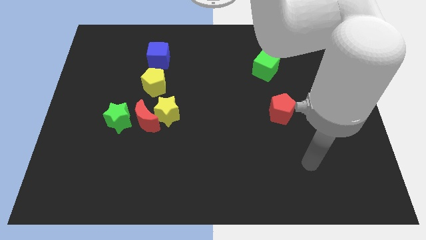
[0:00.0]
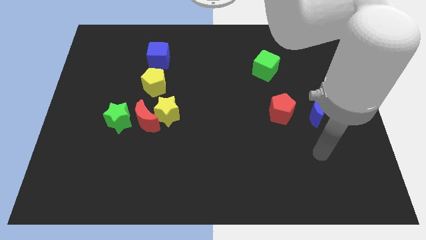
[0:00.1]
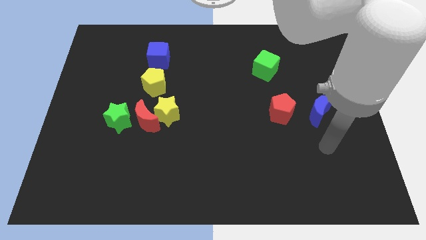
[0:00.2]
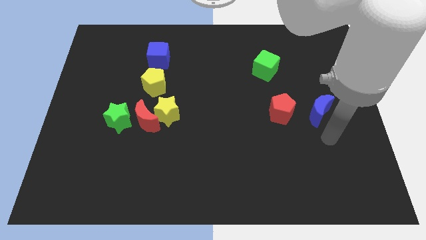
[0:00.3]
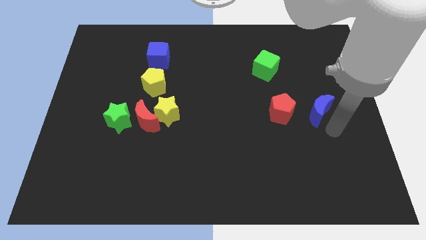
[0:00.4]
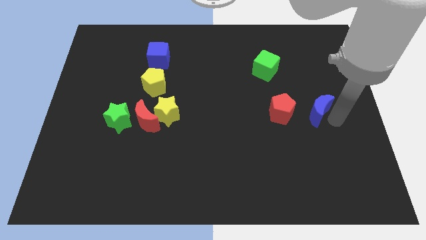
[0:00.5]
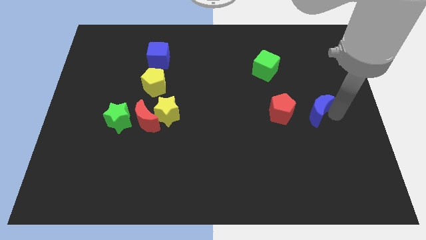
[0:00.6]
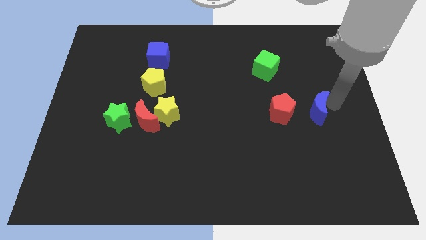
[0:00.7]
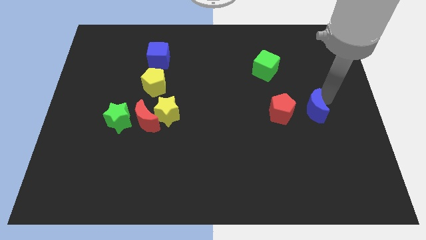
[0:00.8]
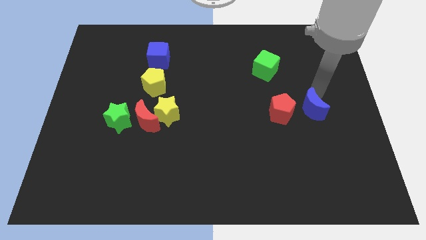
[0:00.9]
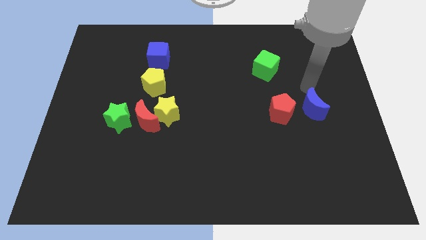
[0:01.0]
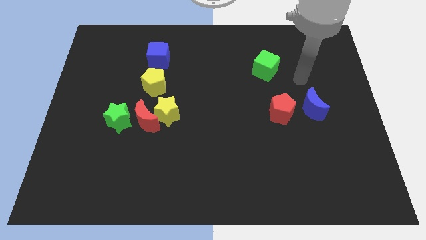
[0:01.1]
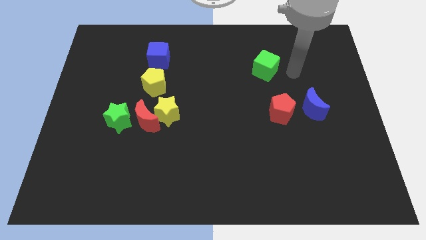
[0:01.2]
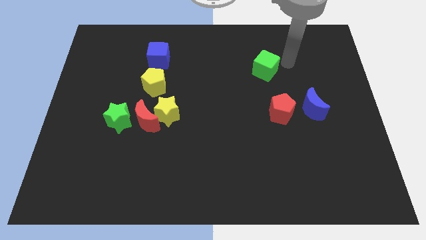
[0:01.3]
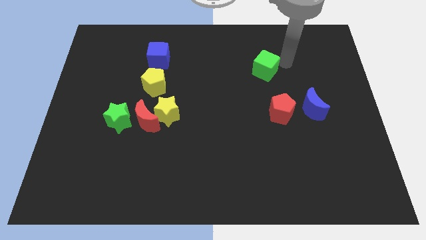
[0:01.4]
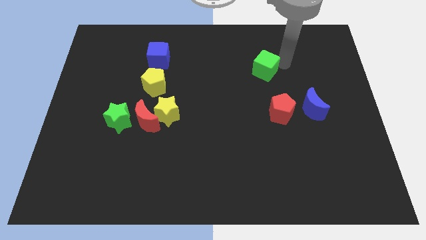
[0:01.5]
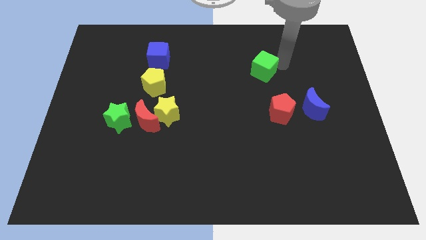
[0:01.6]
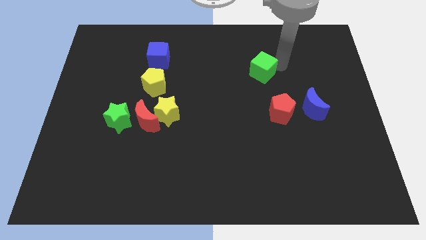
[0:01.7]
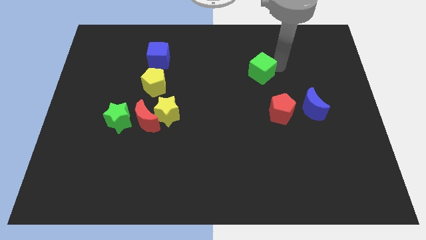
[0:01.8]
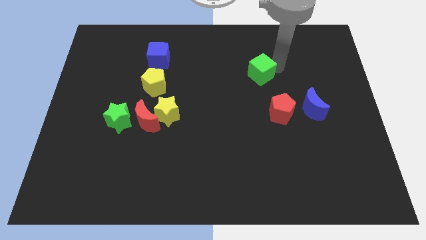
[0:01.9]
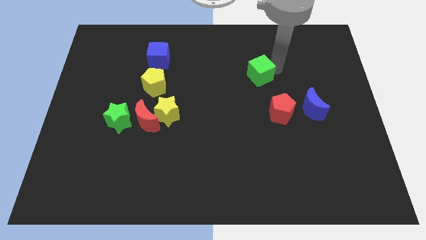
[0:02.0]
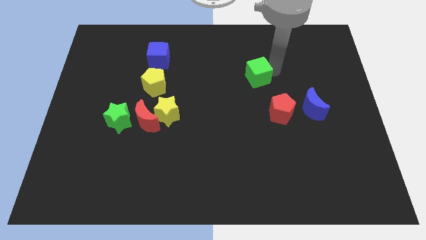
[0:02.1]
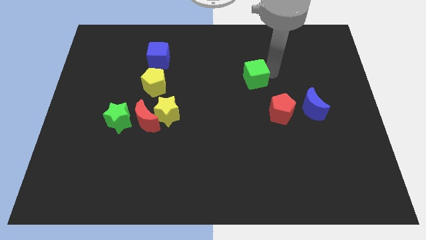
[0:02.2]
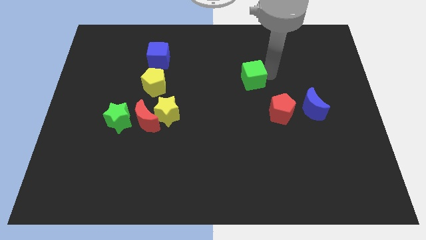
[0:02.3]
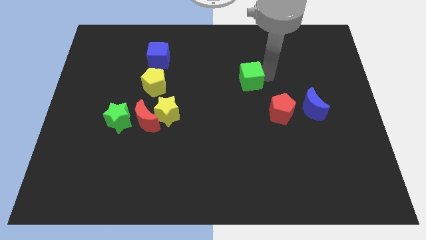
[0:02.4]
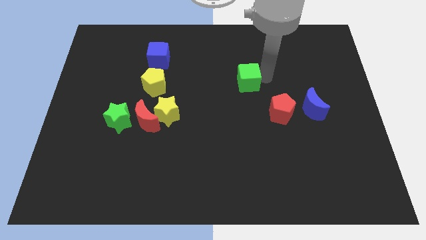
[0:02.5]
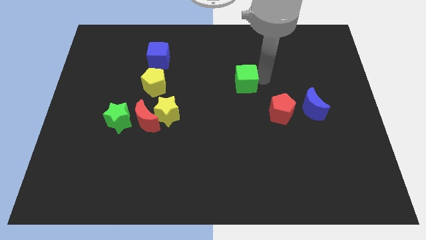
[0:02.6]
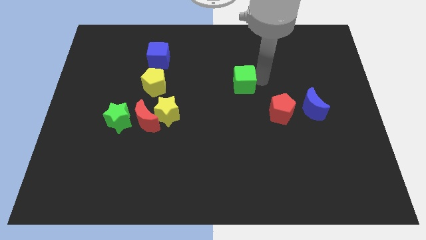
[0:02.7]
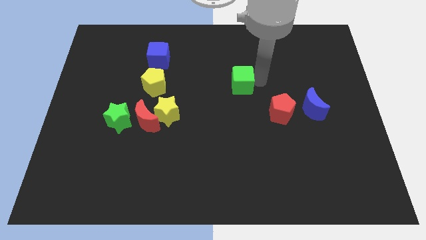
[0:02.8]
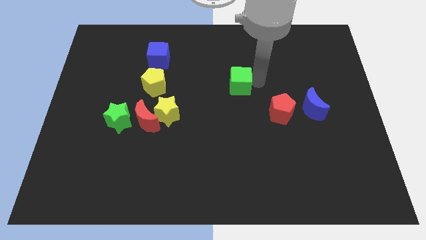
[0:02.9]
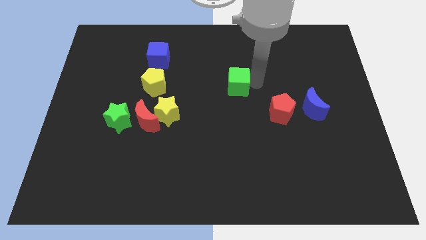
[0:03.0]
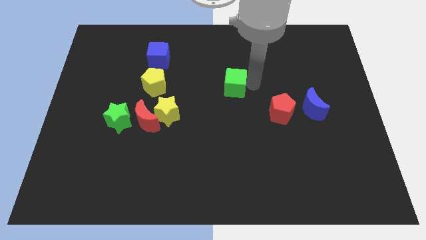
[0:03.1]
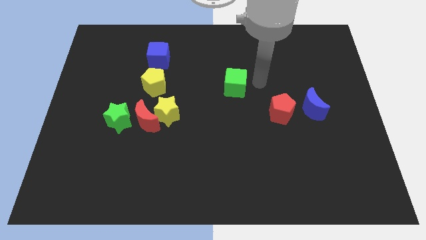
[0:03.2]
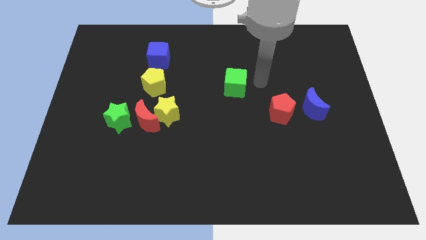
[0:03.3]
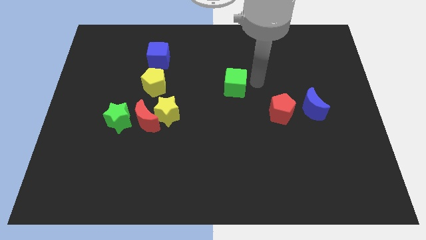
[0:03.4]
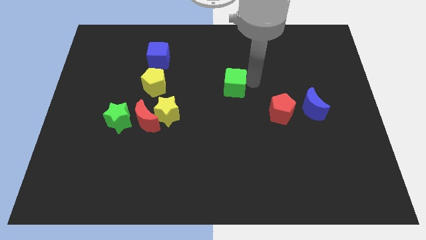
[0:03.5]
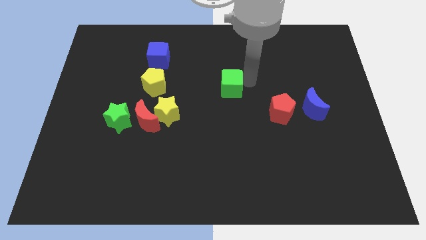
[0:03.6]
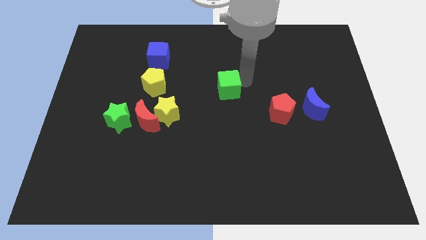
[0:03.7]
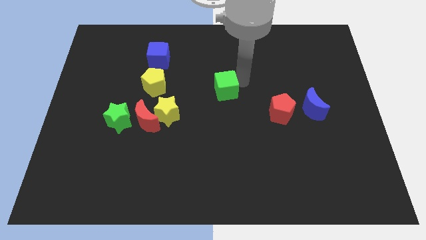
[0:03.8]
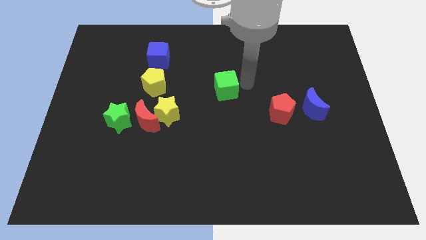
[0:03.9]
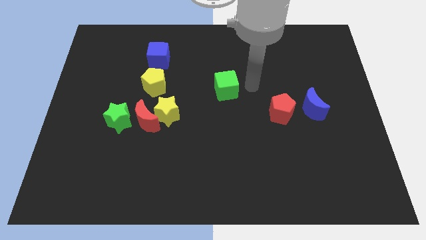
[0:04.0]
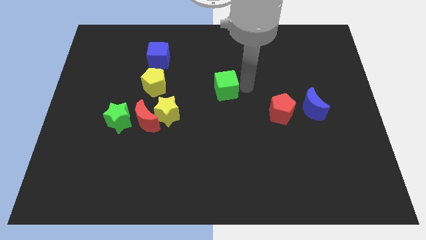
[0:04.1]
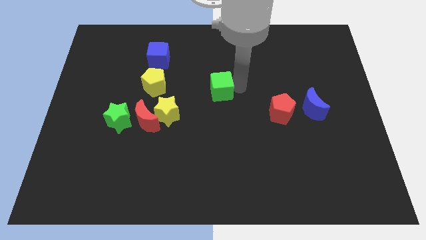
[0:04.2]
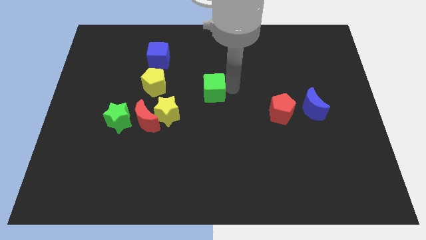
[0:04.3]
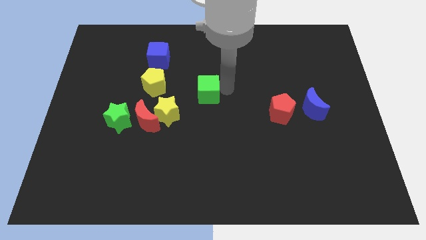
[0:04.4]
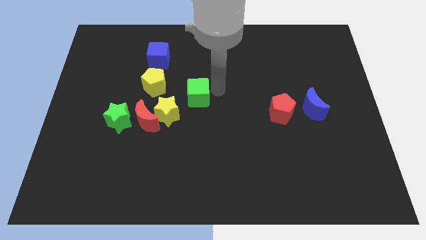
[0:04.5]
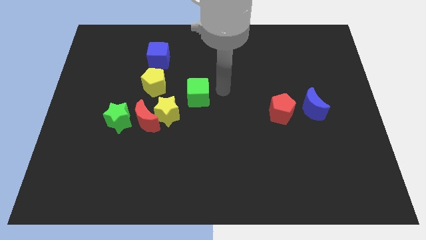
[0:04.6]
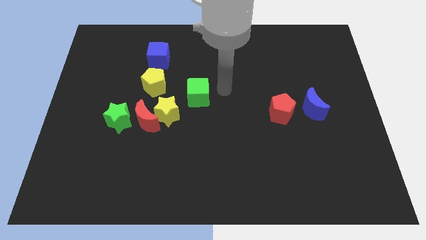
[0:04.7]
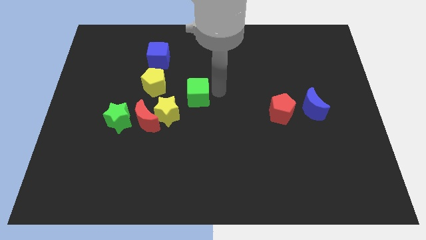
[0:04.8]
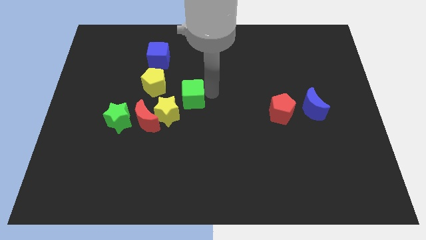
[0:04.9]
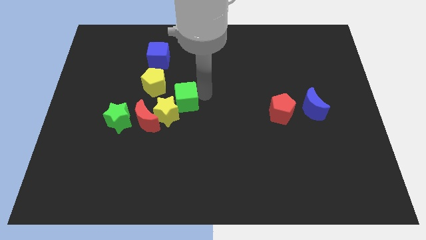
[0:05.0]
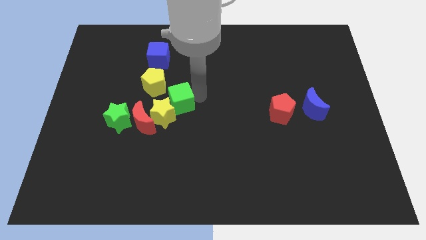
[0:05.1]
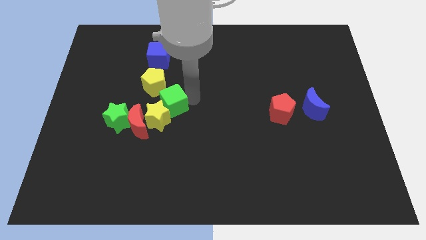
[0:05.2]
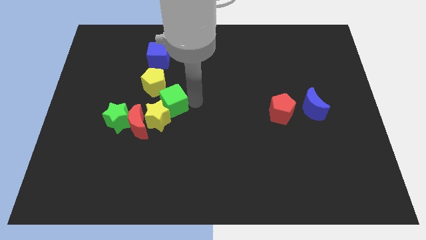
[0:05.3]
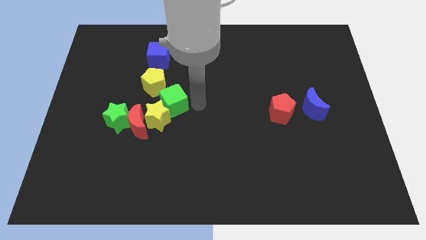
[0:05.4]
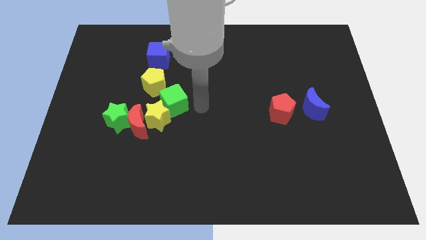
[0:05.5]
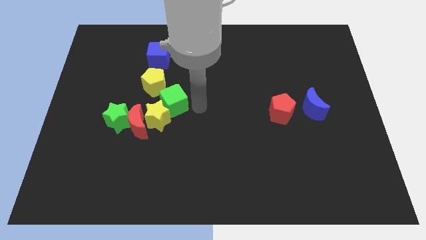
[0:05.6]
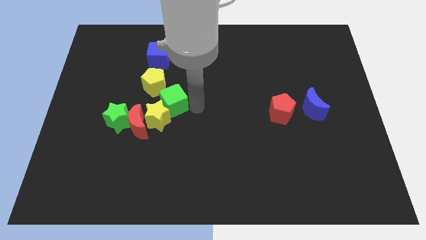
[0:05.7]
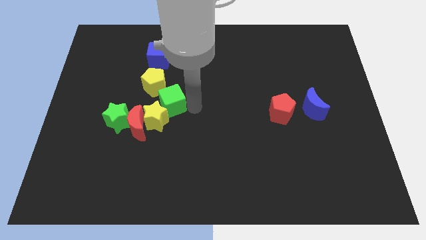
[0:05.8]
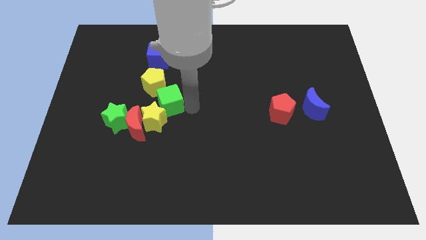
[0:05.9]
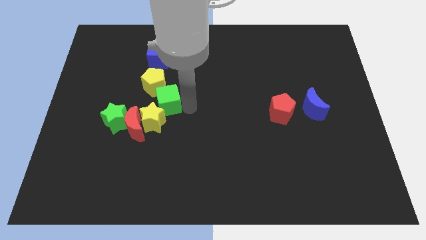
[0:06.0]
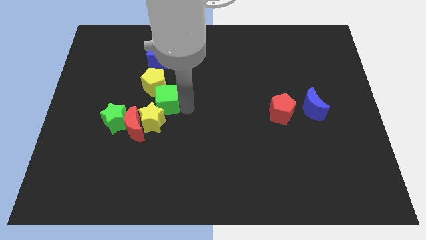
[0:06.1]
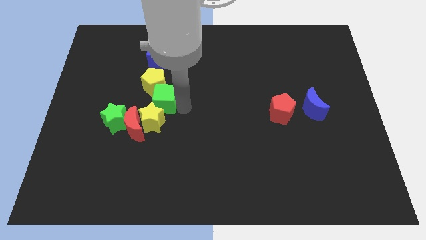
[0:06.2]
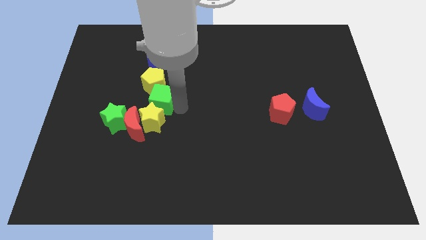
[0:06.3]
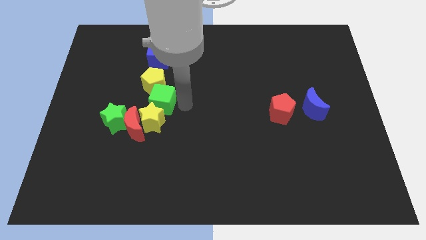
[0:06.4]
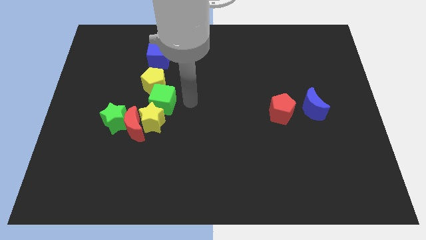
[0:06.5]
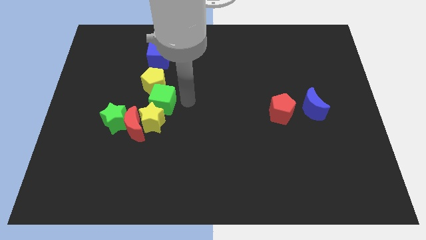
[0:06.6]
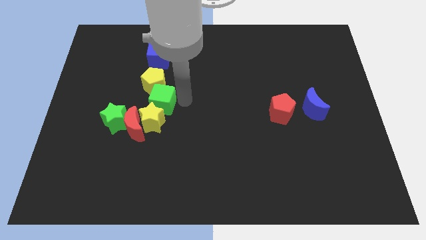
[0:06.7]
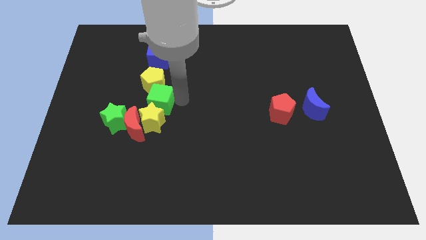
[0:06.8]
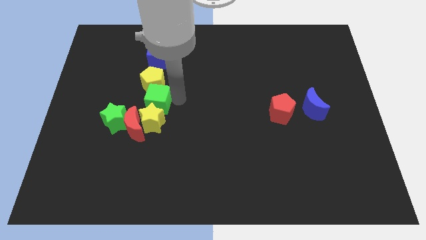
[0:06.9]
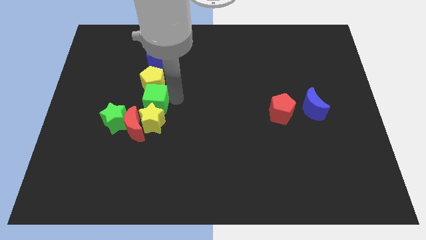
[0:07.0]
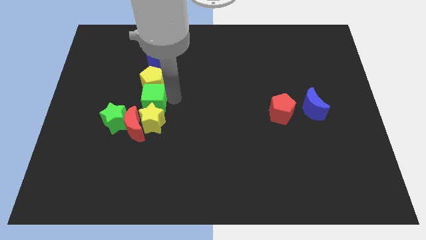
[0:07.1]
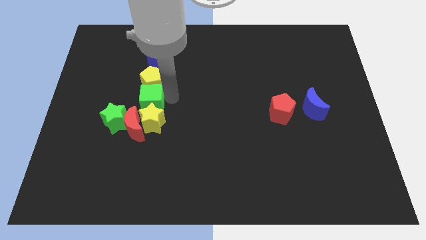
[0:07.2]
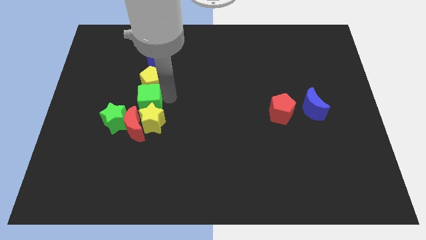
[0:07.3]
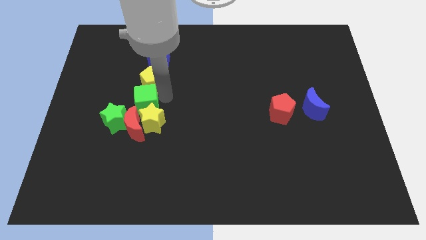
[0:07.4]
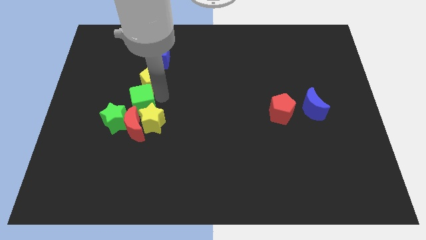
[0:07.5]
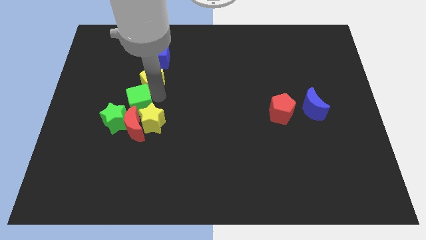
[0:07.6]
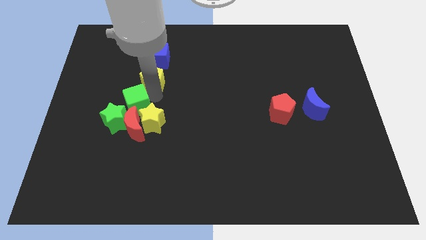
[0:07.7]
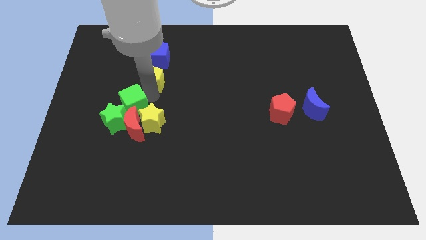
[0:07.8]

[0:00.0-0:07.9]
push the green cube next to the green star
